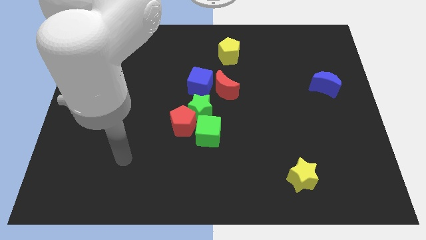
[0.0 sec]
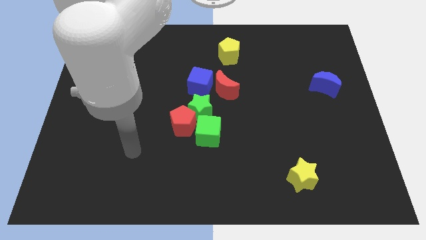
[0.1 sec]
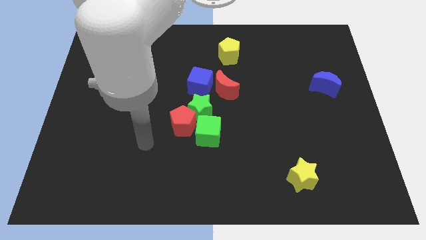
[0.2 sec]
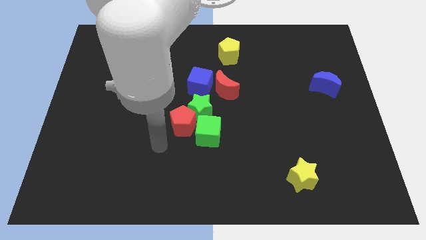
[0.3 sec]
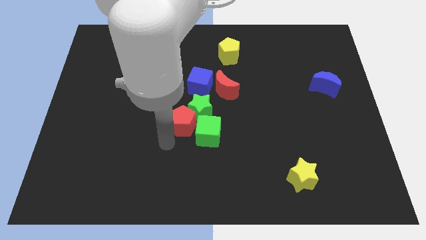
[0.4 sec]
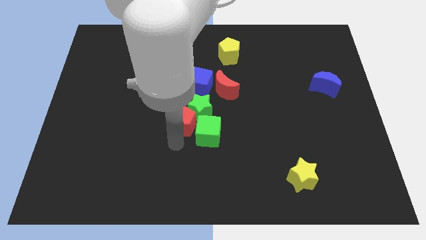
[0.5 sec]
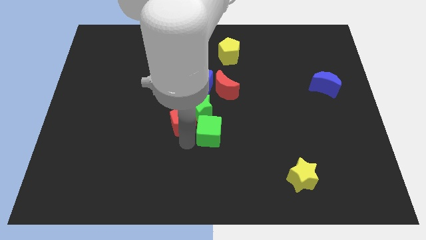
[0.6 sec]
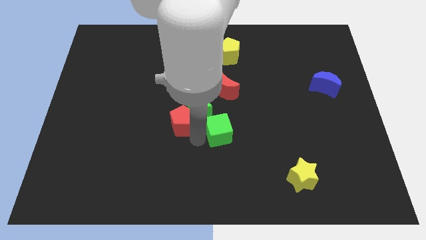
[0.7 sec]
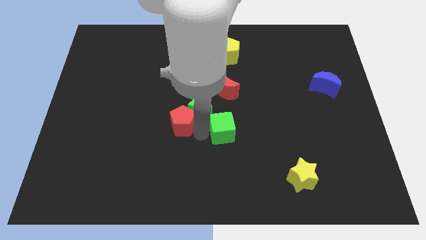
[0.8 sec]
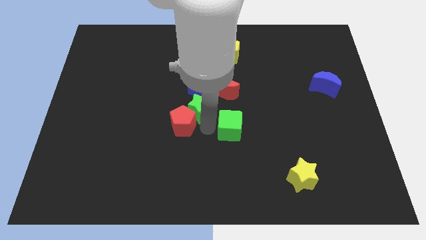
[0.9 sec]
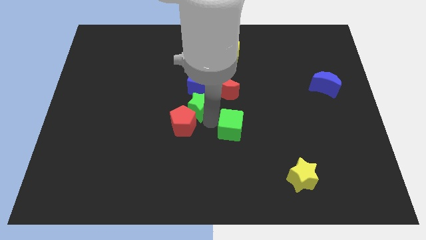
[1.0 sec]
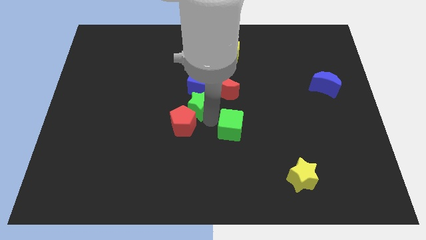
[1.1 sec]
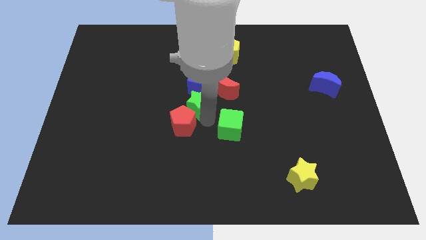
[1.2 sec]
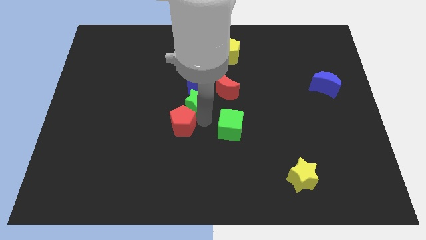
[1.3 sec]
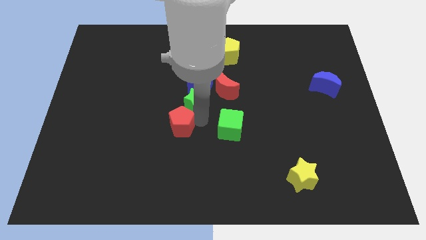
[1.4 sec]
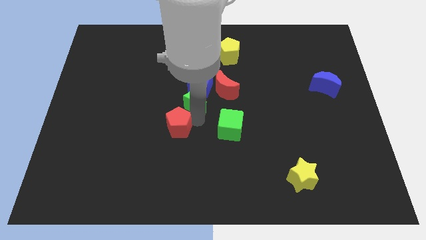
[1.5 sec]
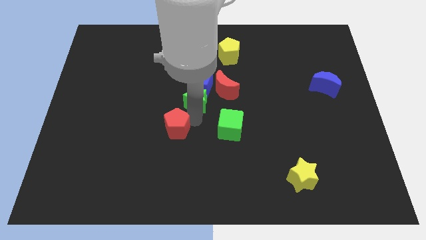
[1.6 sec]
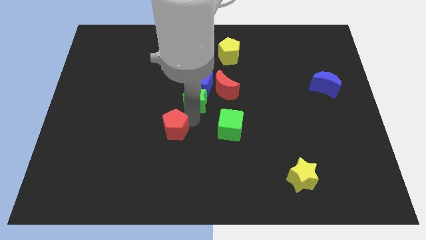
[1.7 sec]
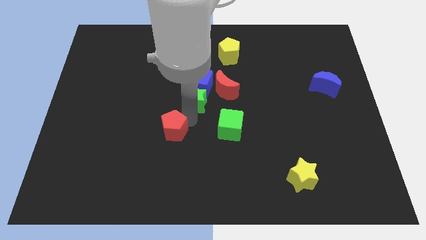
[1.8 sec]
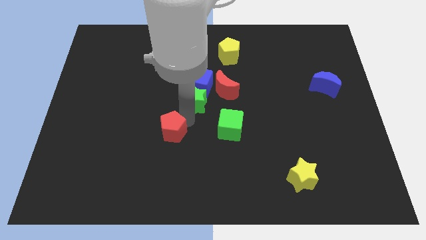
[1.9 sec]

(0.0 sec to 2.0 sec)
pull the red pentagon apart from the green star and green cube

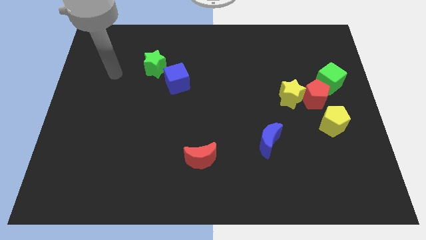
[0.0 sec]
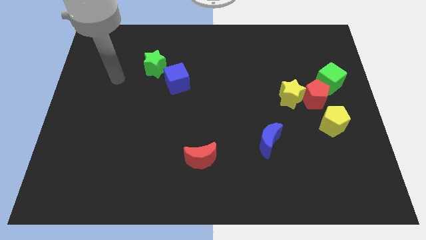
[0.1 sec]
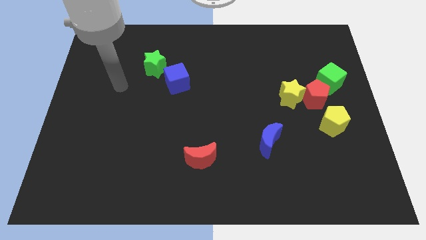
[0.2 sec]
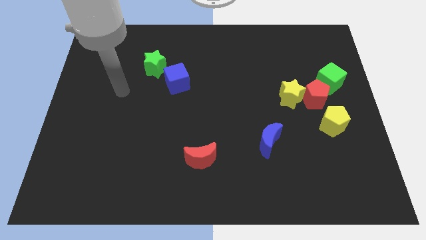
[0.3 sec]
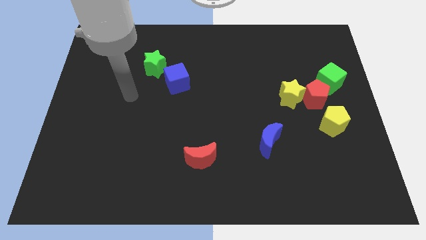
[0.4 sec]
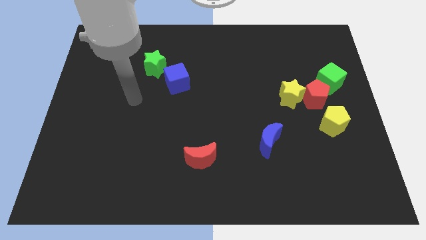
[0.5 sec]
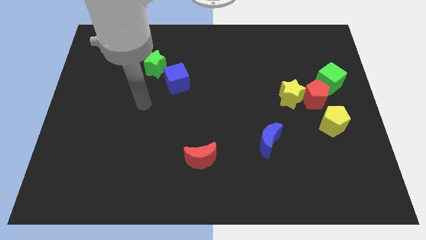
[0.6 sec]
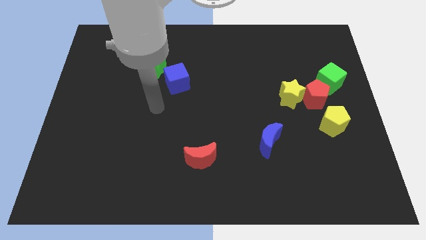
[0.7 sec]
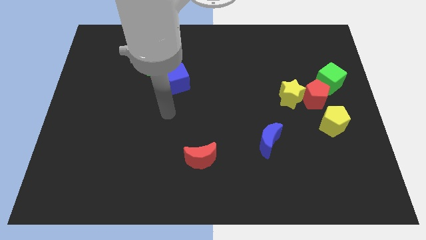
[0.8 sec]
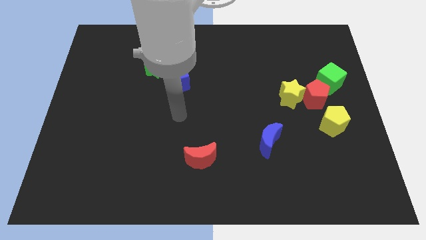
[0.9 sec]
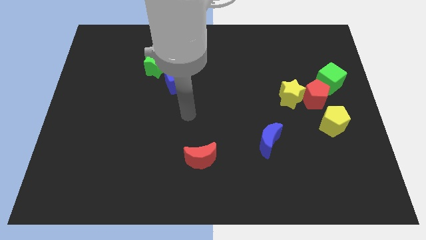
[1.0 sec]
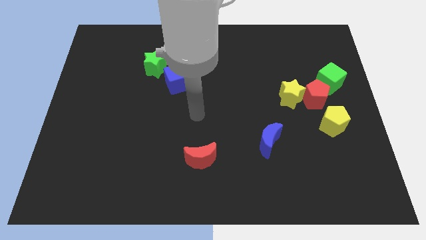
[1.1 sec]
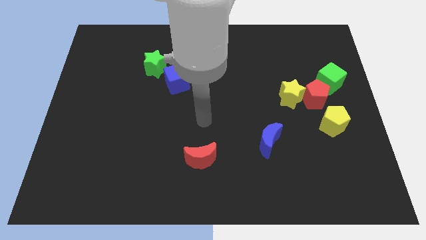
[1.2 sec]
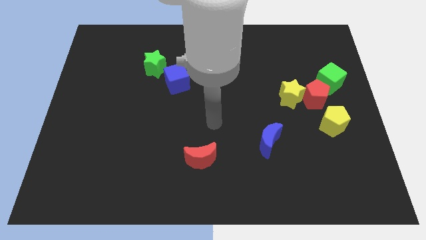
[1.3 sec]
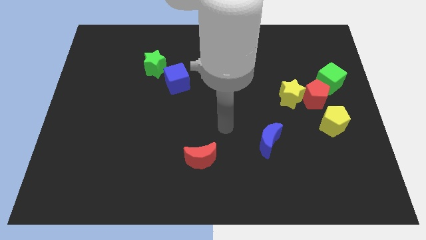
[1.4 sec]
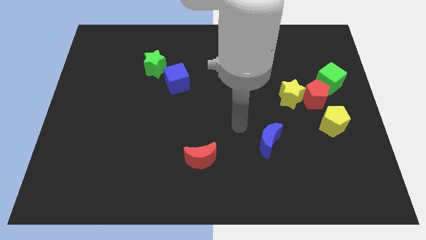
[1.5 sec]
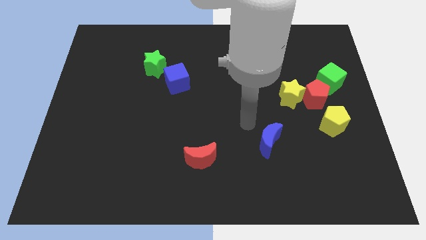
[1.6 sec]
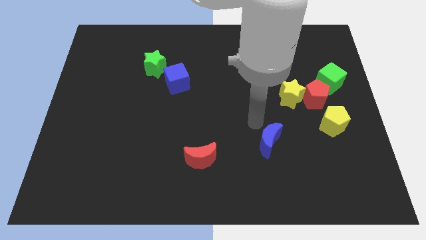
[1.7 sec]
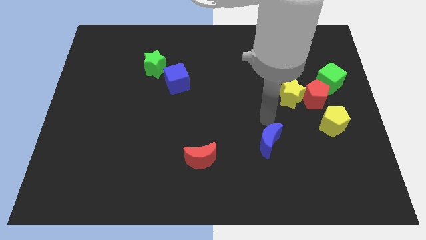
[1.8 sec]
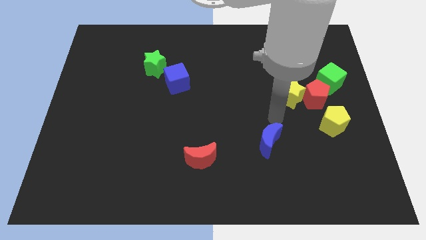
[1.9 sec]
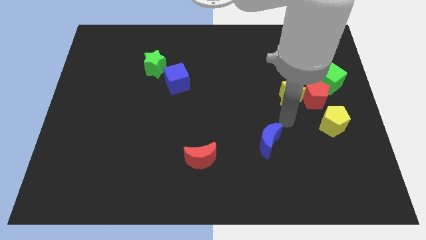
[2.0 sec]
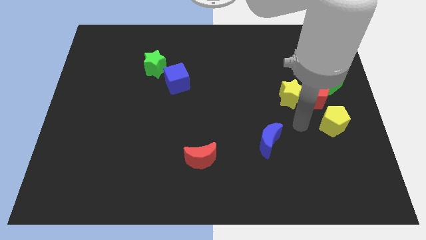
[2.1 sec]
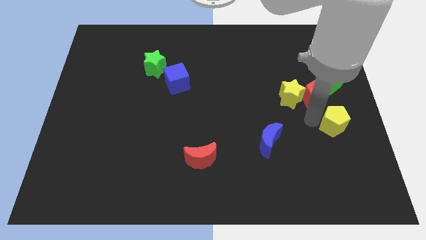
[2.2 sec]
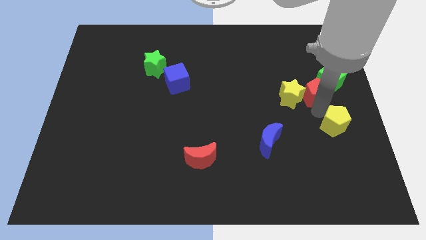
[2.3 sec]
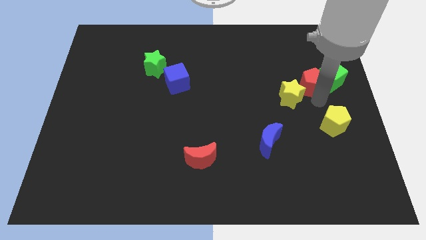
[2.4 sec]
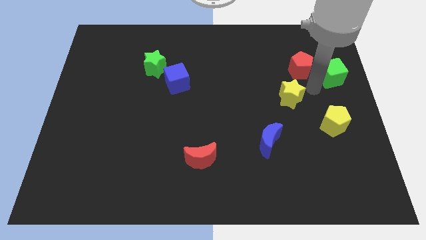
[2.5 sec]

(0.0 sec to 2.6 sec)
separate the yellow star from the red pentagon

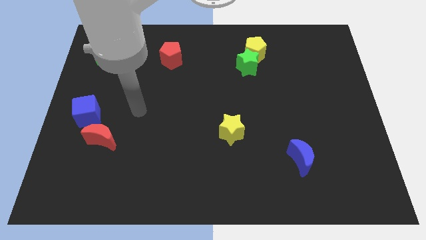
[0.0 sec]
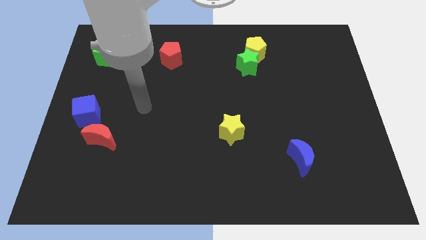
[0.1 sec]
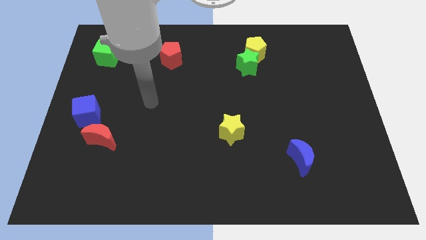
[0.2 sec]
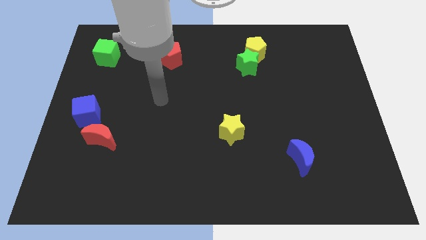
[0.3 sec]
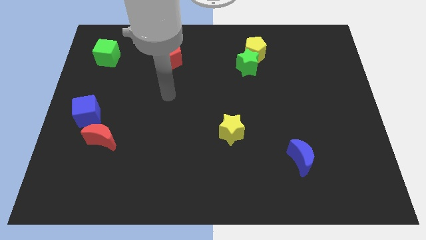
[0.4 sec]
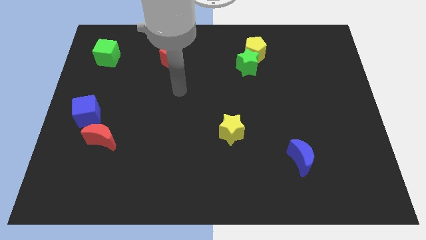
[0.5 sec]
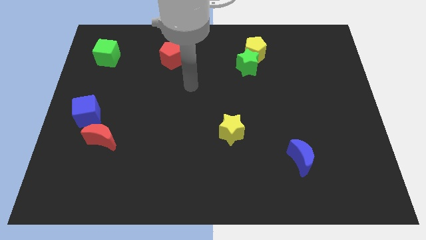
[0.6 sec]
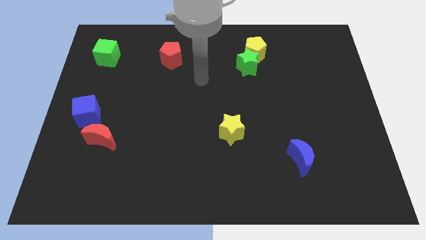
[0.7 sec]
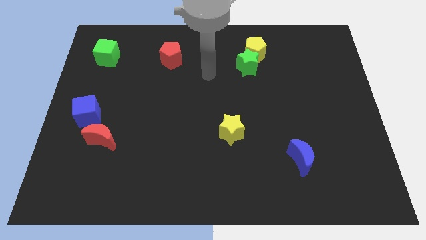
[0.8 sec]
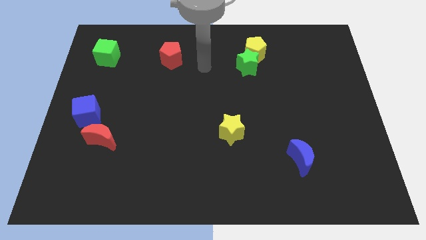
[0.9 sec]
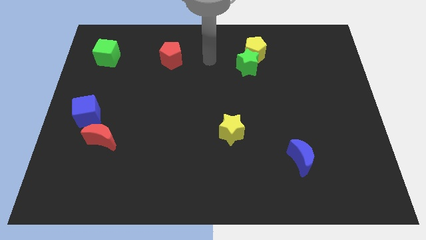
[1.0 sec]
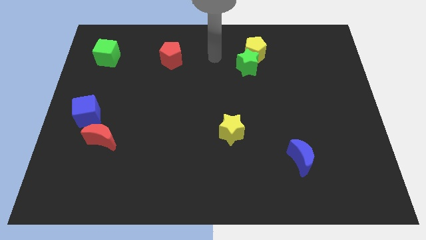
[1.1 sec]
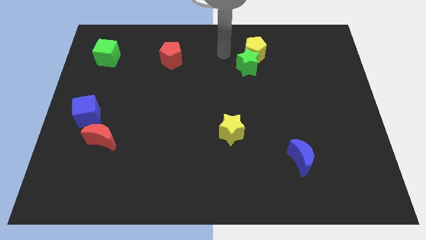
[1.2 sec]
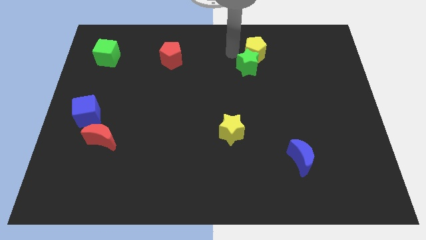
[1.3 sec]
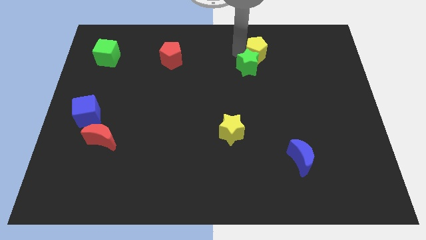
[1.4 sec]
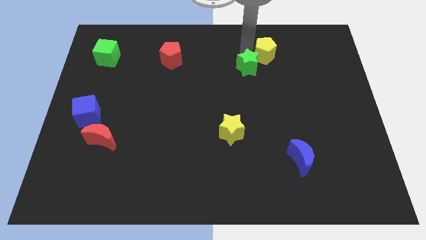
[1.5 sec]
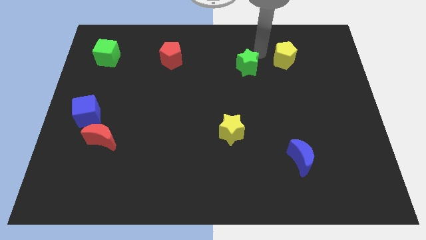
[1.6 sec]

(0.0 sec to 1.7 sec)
separate the green star from the yellow pentagon

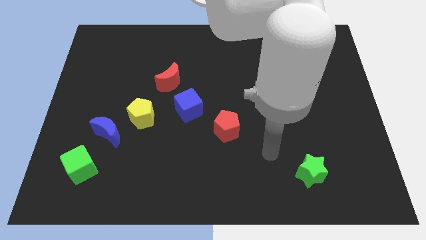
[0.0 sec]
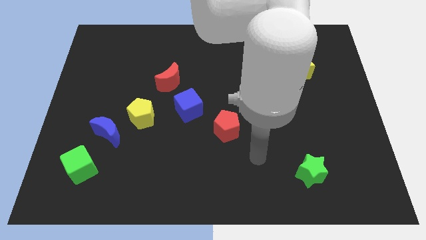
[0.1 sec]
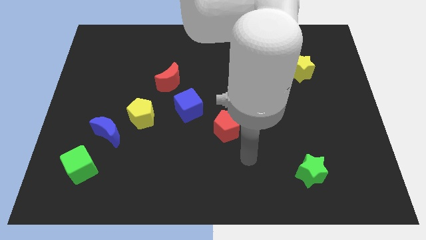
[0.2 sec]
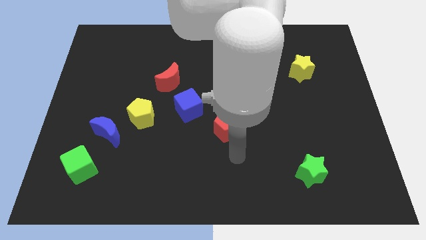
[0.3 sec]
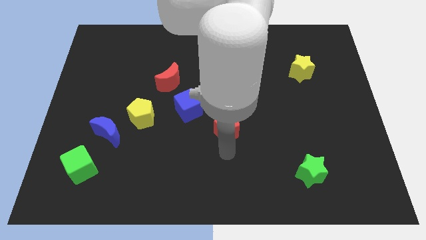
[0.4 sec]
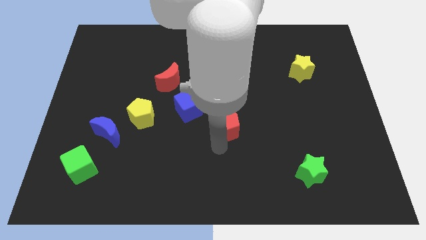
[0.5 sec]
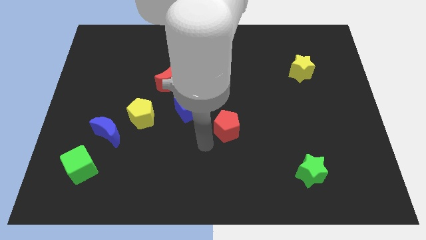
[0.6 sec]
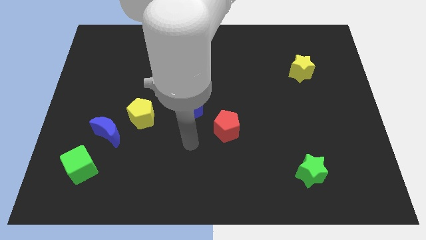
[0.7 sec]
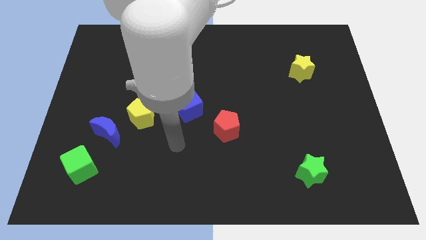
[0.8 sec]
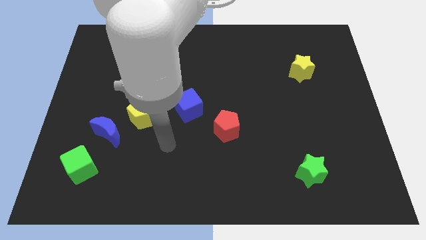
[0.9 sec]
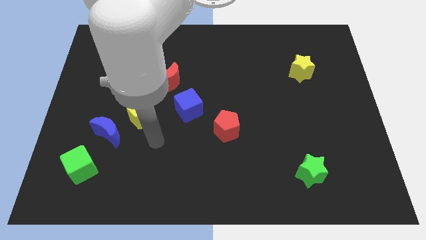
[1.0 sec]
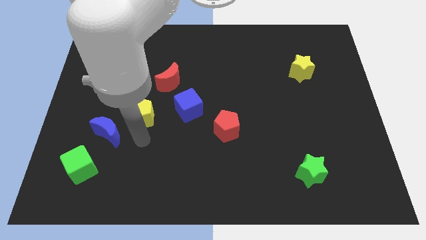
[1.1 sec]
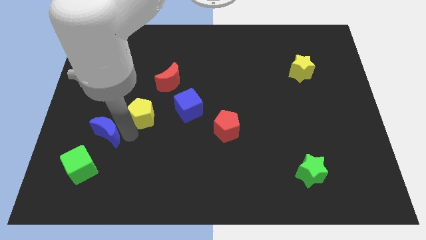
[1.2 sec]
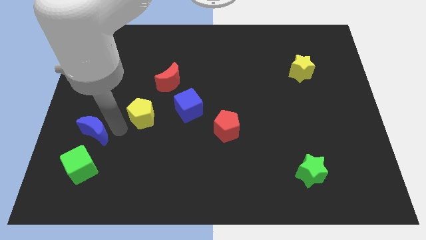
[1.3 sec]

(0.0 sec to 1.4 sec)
move the yellow pentagon away from the blue moon

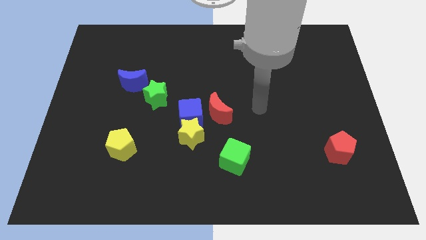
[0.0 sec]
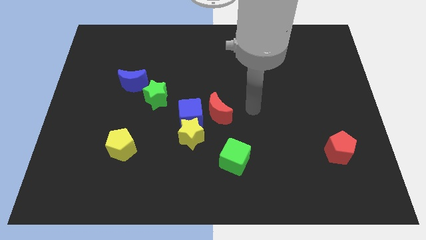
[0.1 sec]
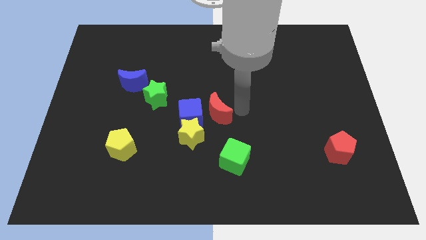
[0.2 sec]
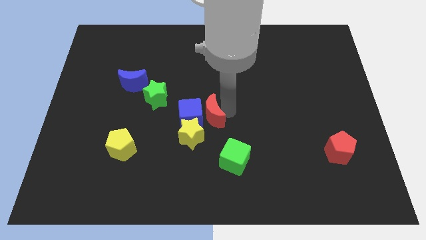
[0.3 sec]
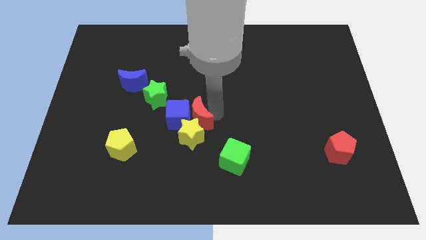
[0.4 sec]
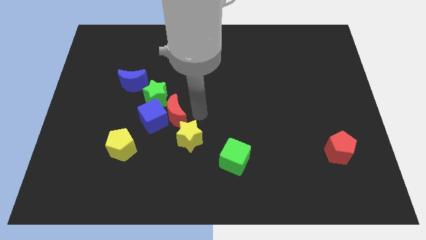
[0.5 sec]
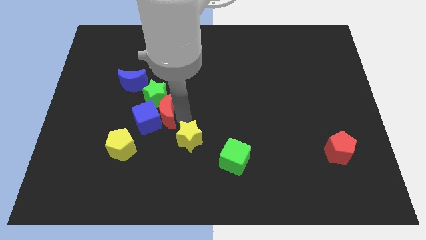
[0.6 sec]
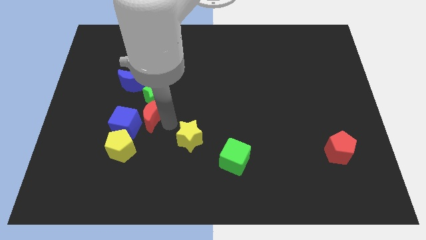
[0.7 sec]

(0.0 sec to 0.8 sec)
separate the yellow star from the blue cube and red moon

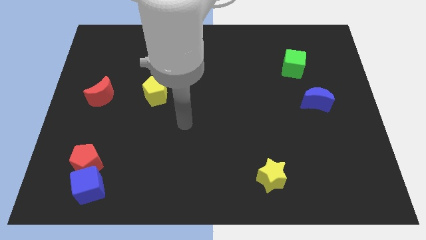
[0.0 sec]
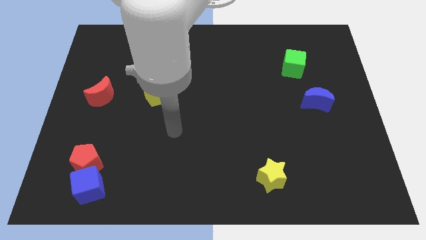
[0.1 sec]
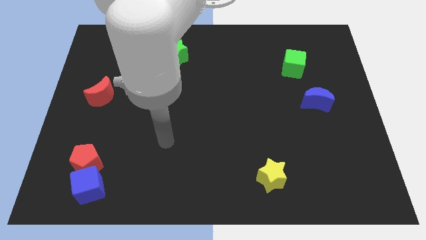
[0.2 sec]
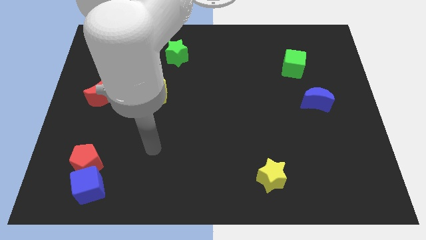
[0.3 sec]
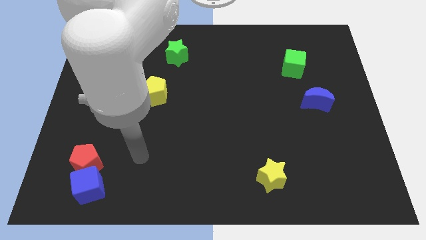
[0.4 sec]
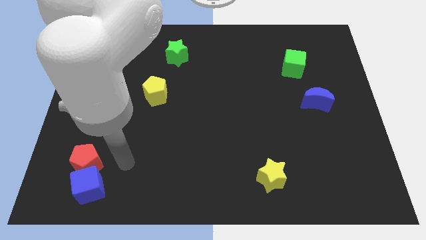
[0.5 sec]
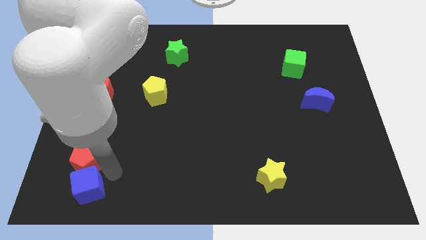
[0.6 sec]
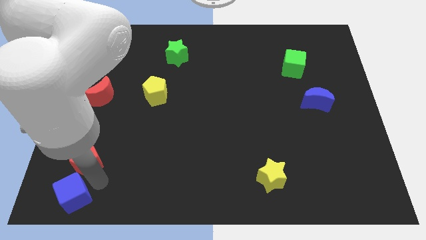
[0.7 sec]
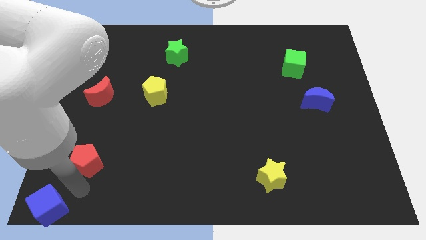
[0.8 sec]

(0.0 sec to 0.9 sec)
separate the red pentagon from the blue cube
